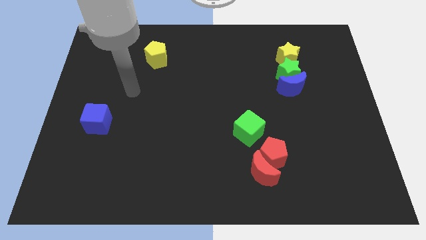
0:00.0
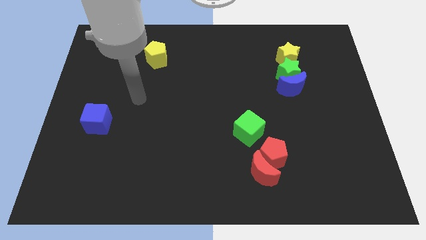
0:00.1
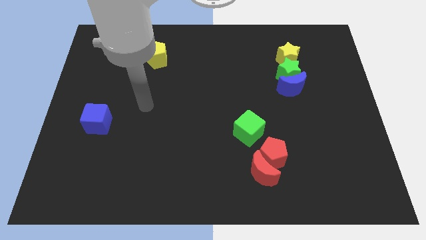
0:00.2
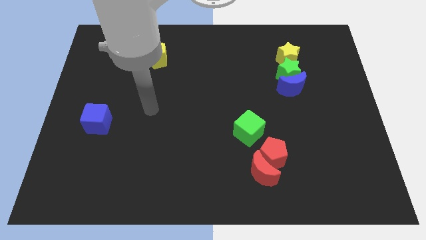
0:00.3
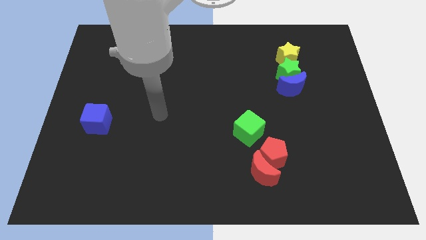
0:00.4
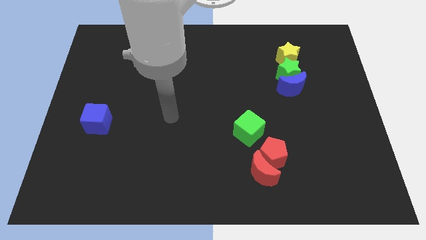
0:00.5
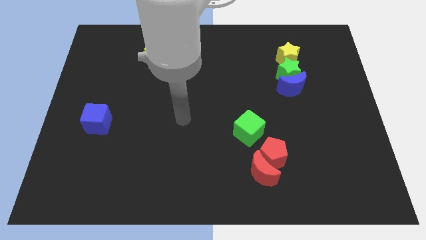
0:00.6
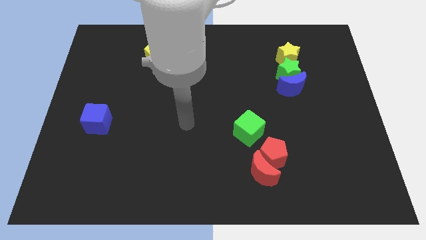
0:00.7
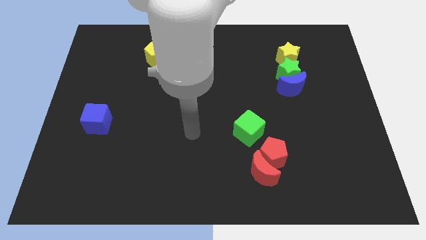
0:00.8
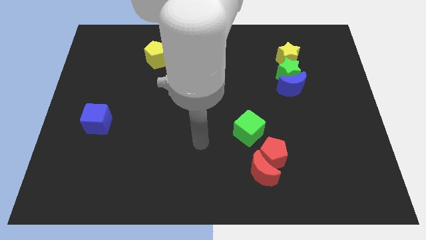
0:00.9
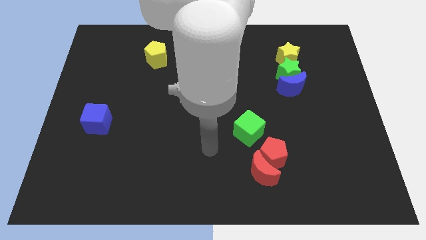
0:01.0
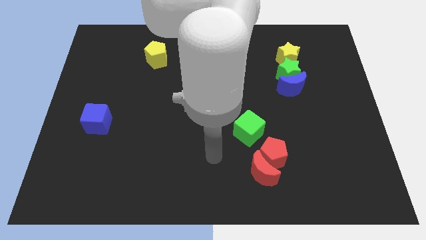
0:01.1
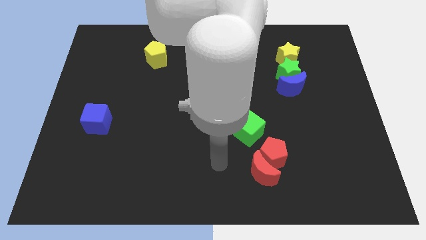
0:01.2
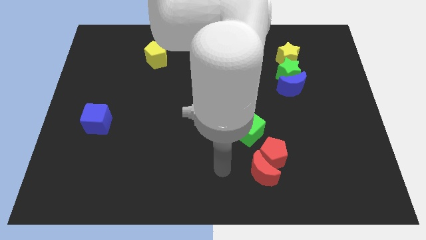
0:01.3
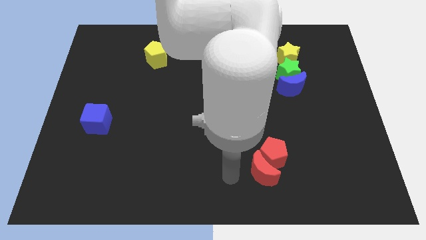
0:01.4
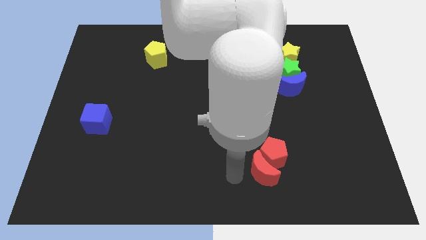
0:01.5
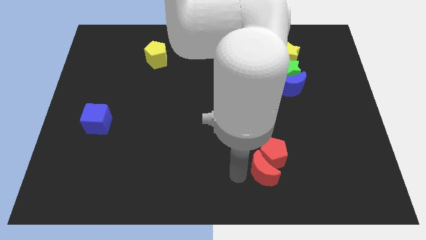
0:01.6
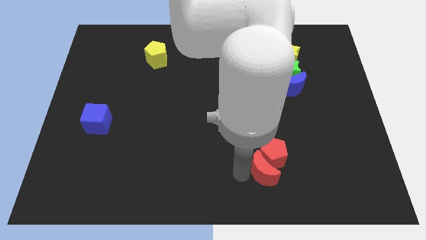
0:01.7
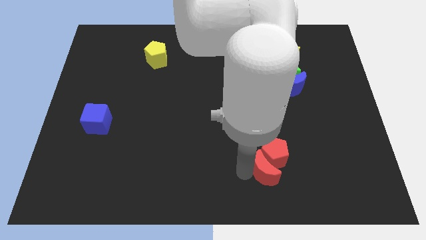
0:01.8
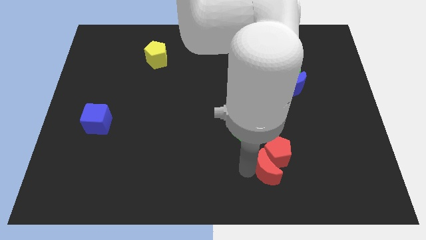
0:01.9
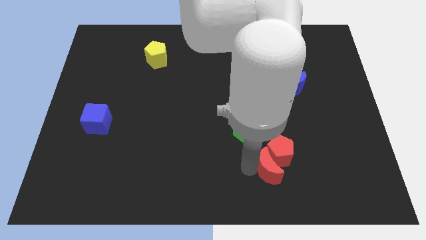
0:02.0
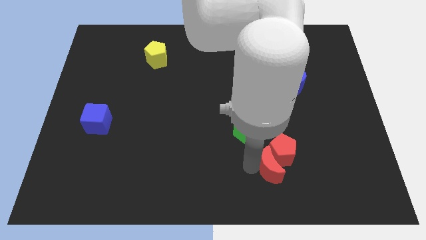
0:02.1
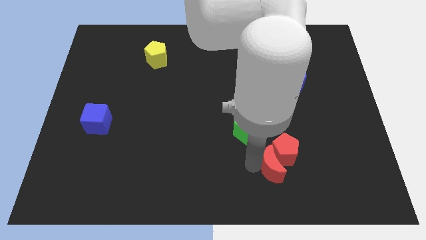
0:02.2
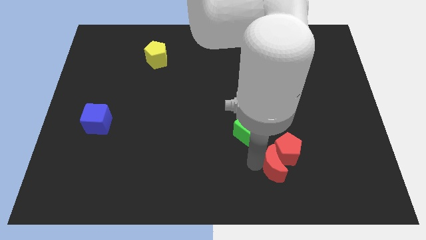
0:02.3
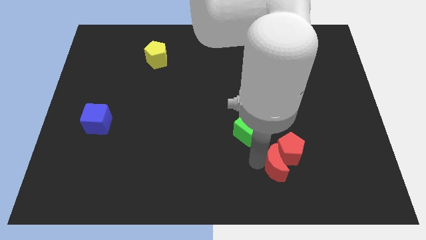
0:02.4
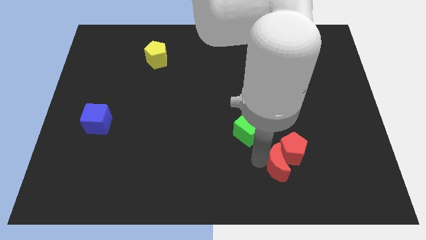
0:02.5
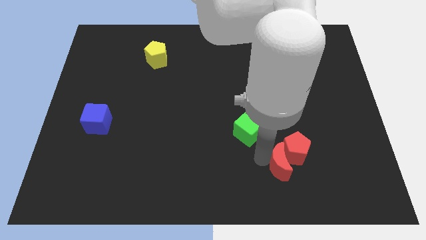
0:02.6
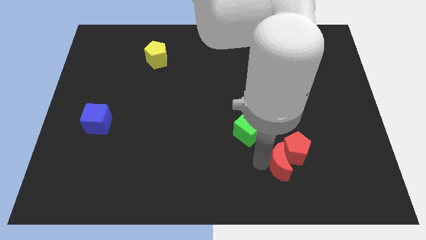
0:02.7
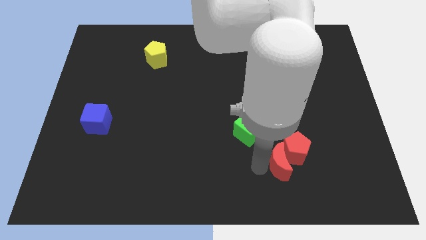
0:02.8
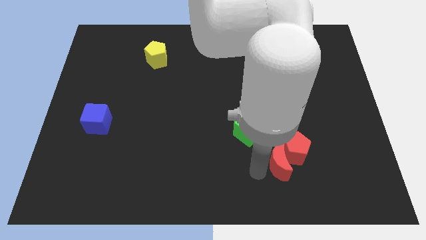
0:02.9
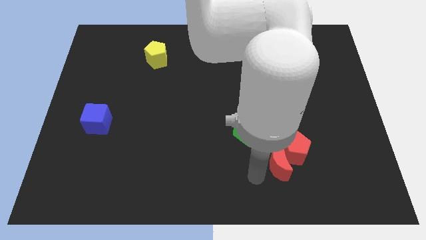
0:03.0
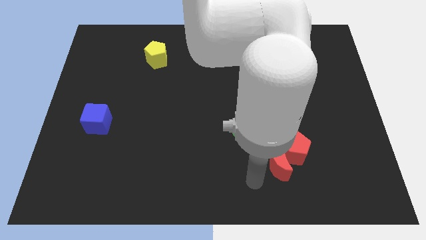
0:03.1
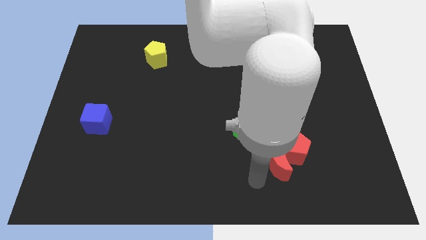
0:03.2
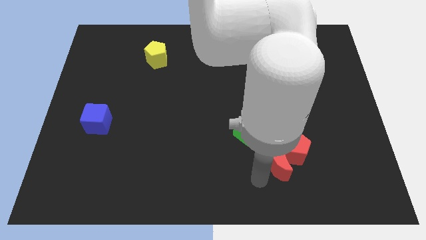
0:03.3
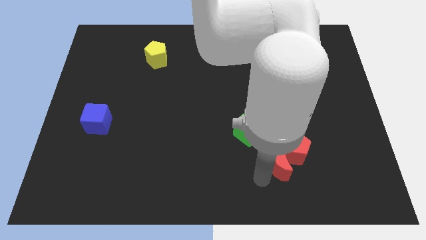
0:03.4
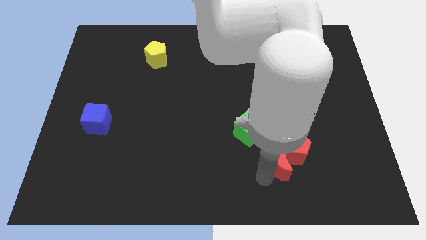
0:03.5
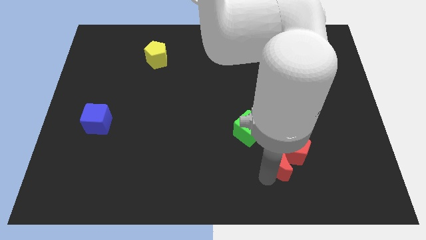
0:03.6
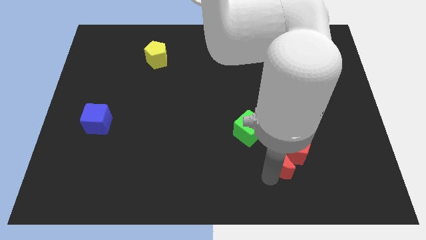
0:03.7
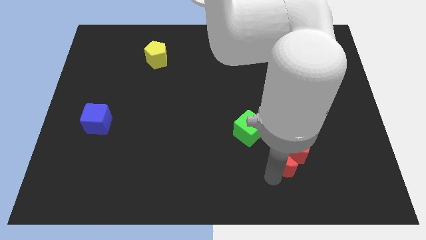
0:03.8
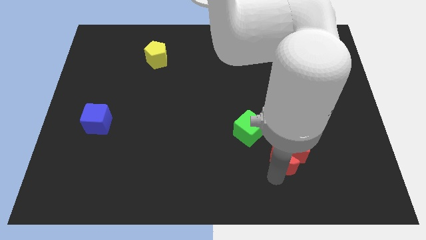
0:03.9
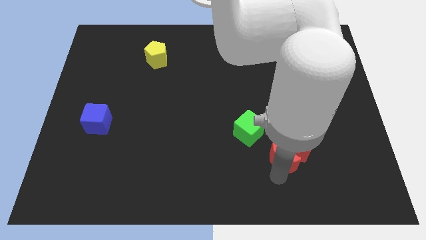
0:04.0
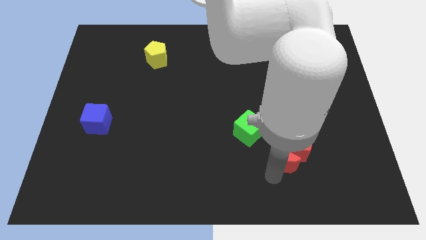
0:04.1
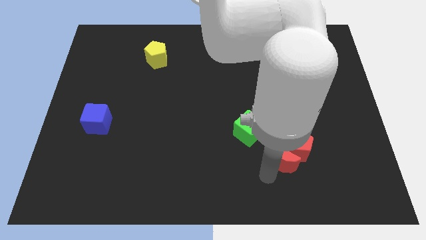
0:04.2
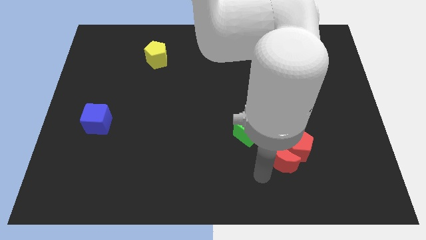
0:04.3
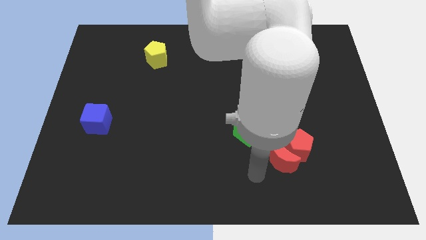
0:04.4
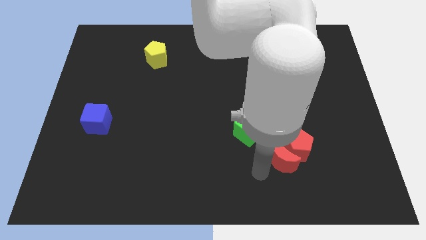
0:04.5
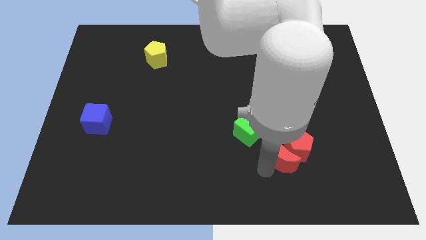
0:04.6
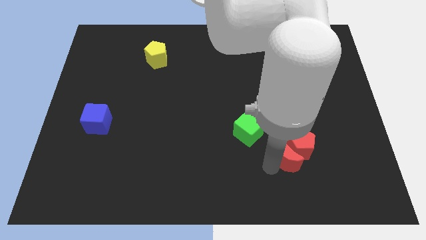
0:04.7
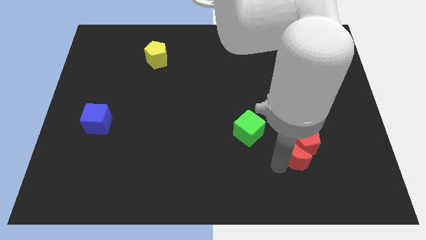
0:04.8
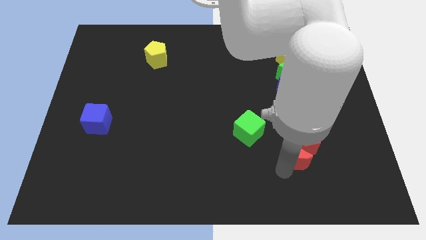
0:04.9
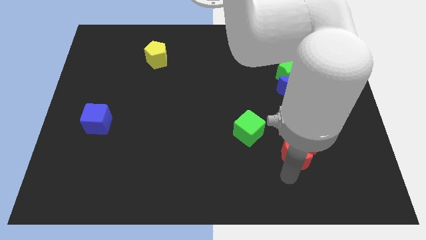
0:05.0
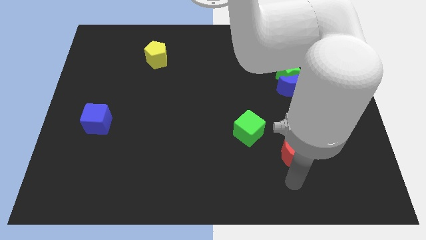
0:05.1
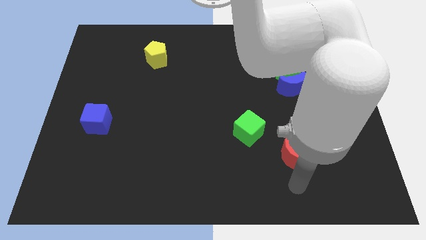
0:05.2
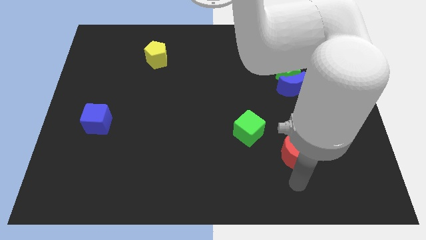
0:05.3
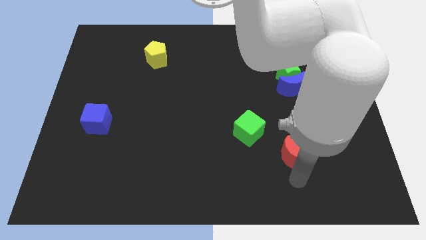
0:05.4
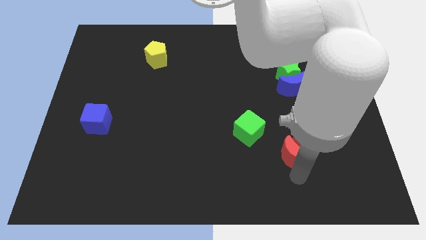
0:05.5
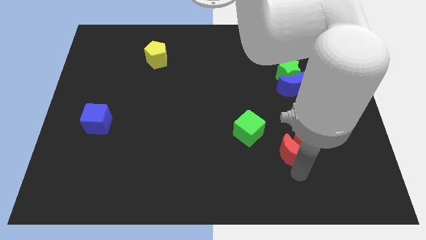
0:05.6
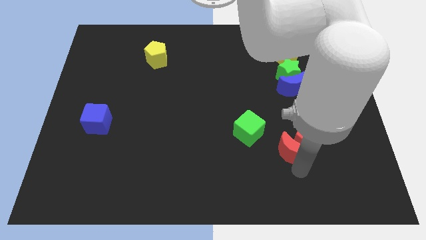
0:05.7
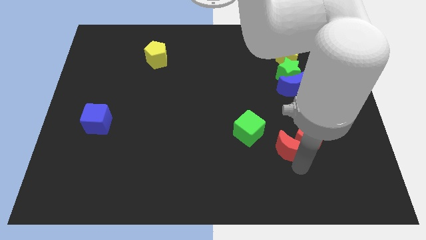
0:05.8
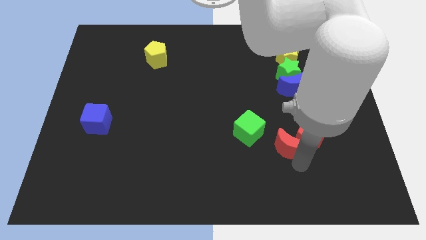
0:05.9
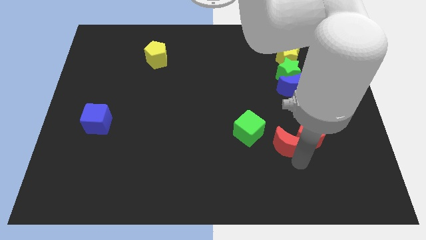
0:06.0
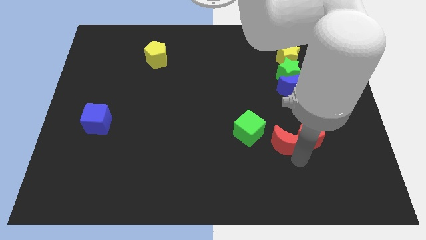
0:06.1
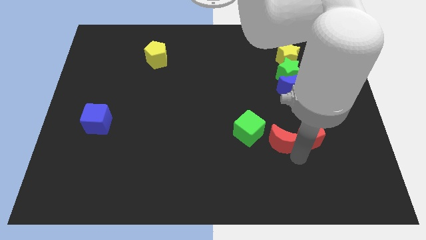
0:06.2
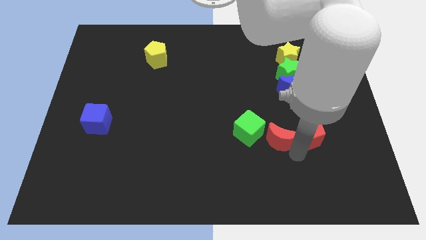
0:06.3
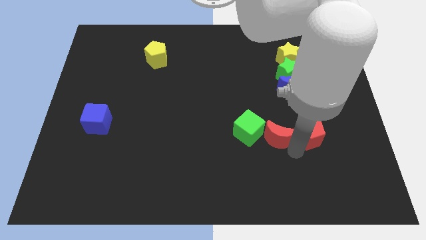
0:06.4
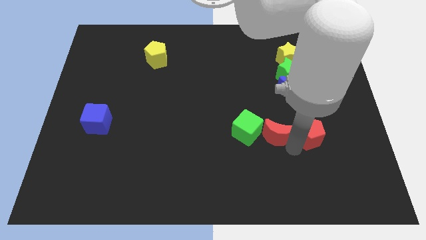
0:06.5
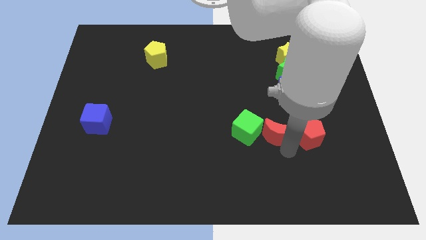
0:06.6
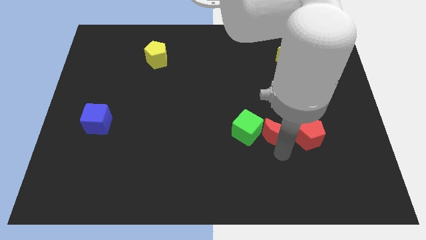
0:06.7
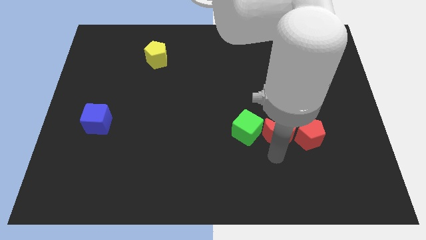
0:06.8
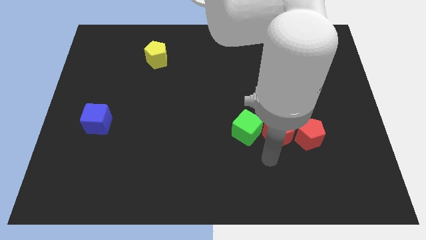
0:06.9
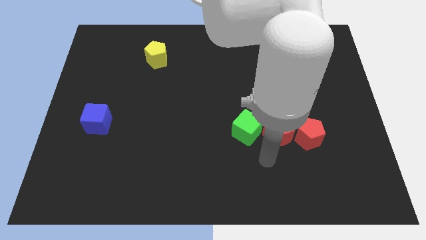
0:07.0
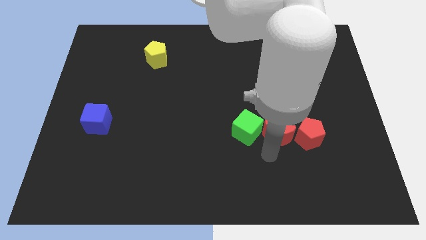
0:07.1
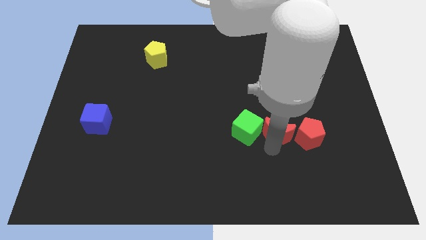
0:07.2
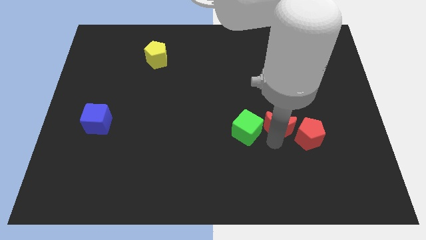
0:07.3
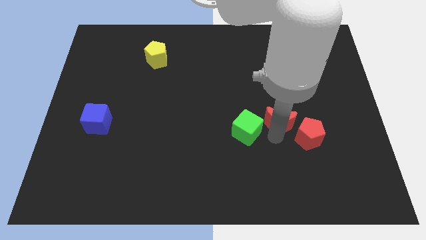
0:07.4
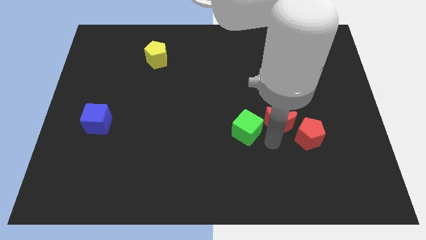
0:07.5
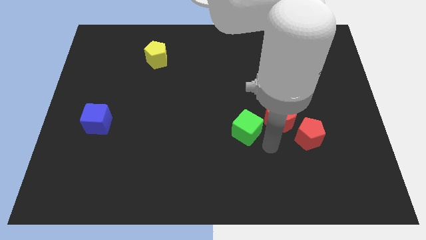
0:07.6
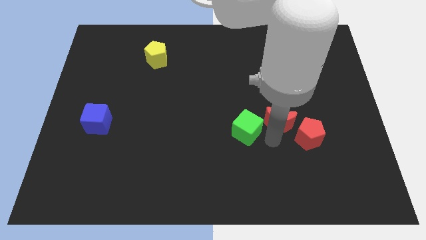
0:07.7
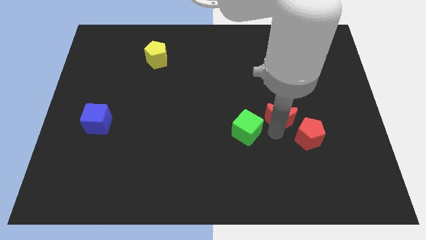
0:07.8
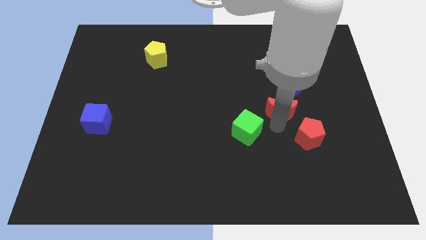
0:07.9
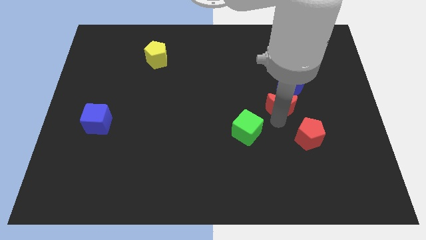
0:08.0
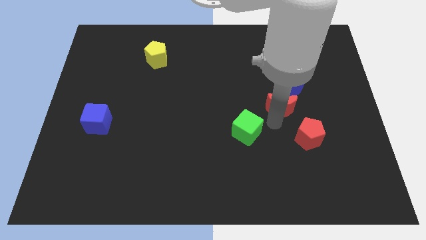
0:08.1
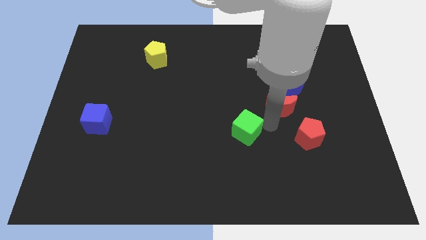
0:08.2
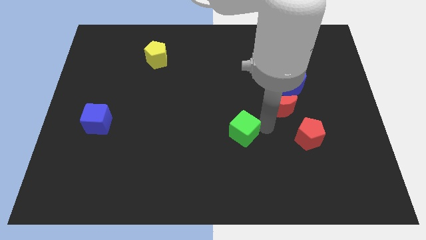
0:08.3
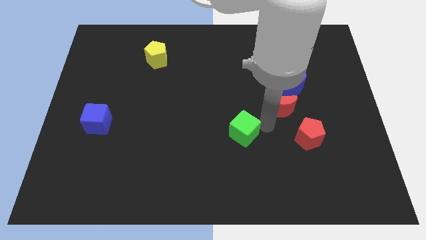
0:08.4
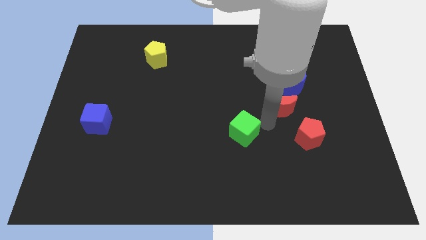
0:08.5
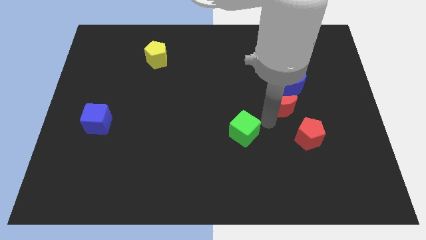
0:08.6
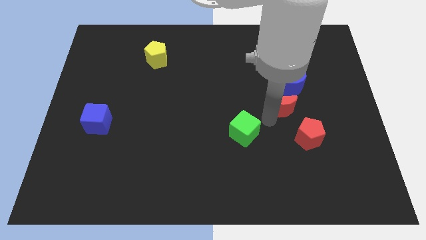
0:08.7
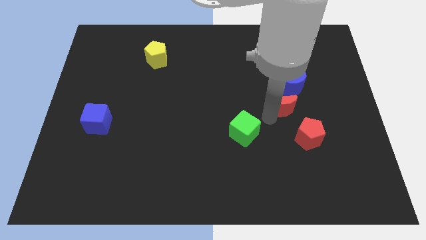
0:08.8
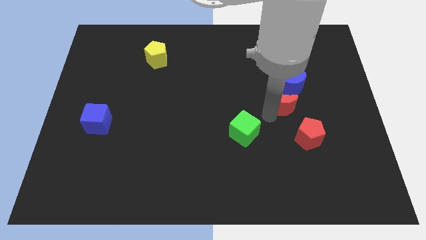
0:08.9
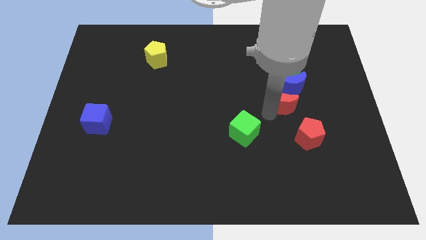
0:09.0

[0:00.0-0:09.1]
push the red moon close to the blue moon
